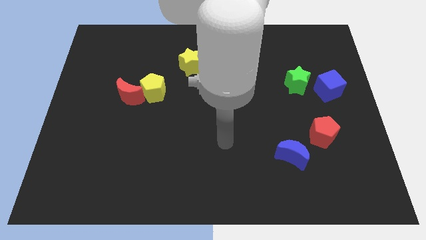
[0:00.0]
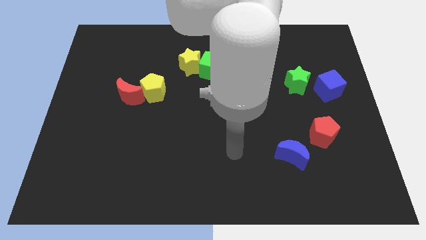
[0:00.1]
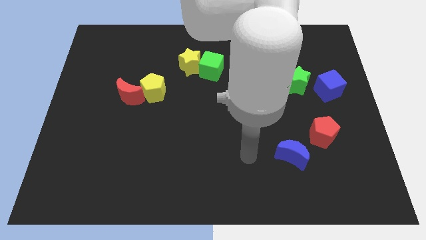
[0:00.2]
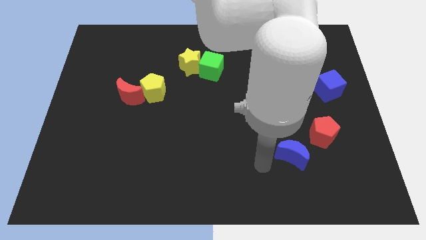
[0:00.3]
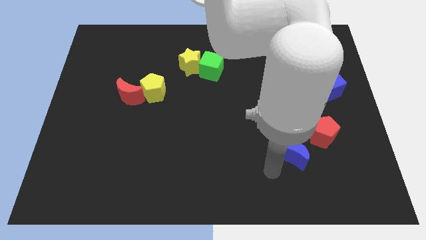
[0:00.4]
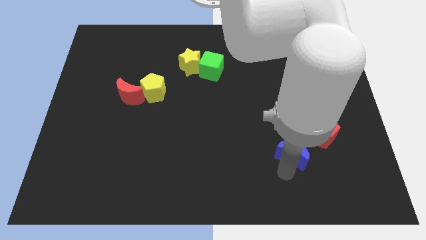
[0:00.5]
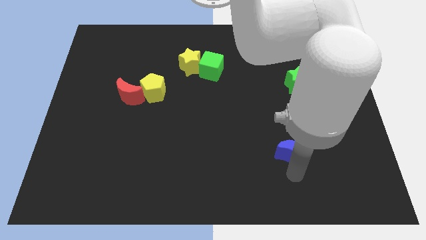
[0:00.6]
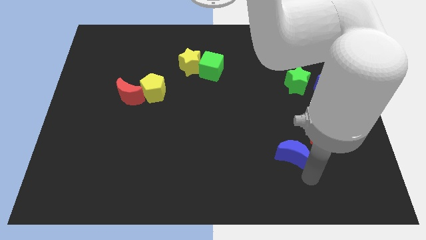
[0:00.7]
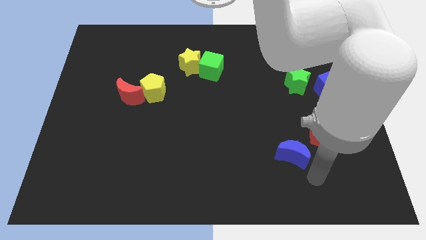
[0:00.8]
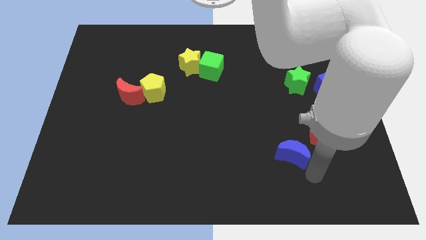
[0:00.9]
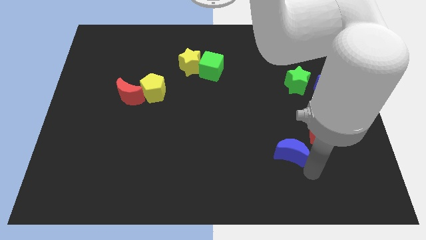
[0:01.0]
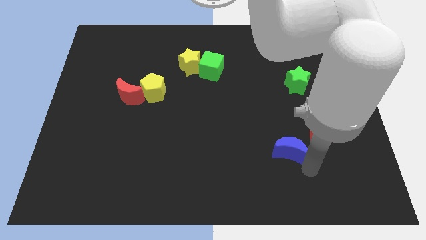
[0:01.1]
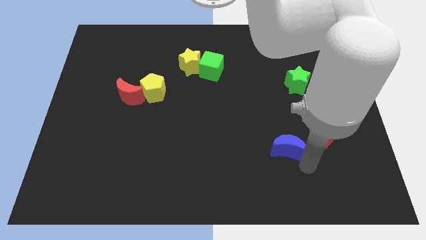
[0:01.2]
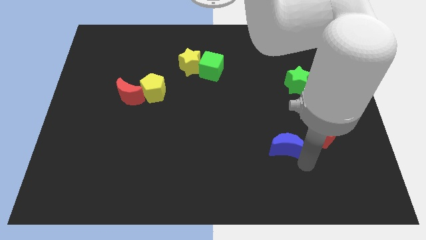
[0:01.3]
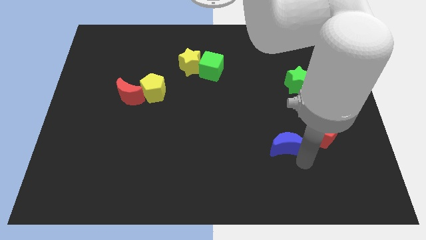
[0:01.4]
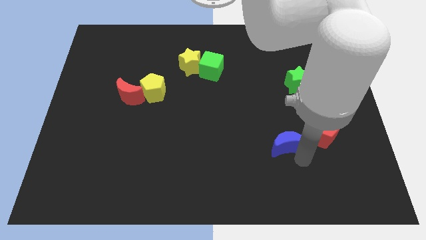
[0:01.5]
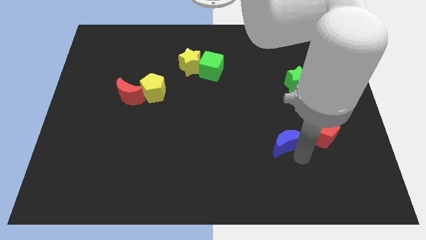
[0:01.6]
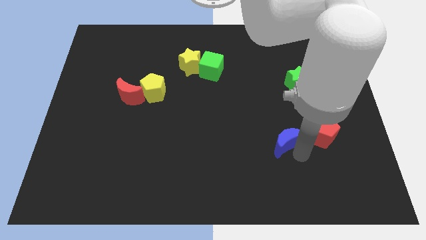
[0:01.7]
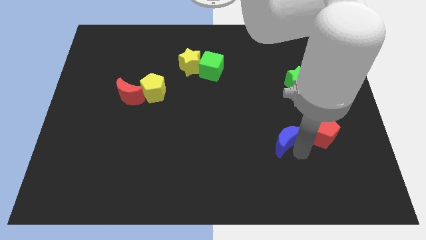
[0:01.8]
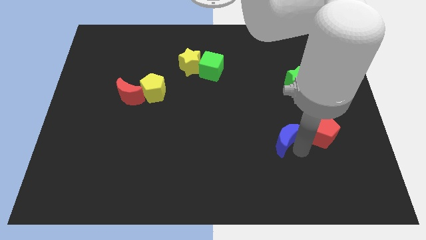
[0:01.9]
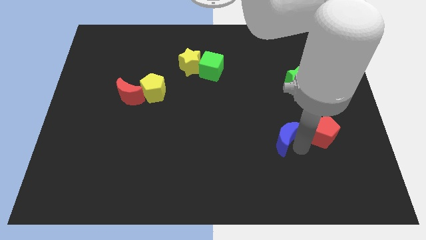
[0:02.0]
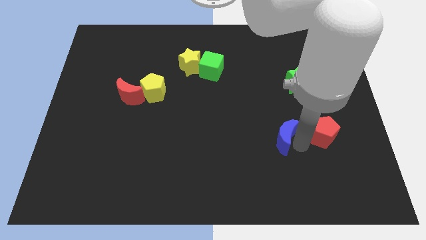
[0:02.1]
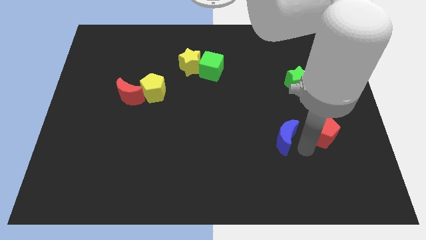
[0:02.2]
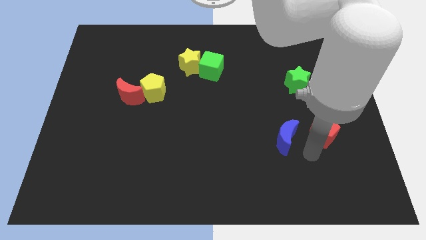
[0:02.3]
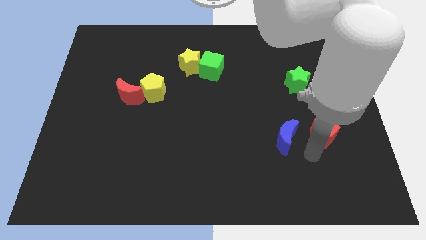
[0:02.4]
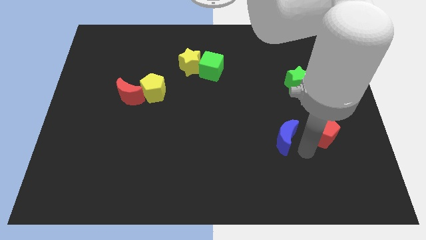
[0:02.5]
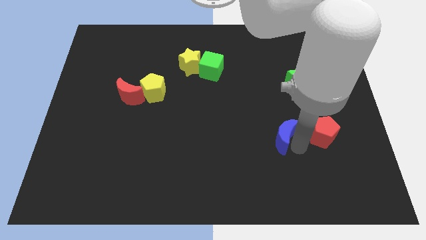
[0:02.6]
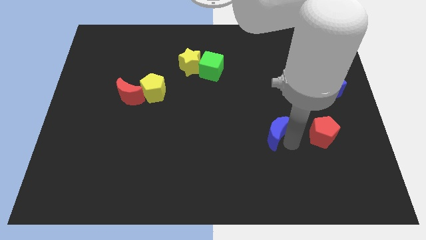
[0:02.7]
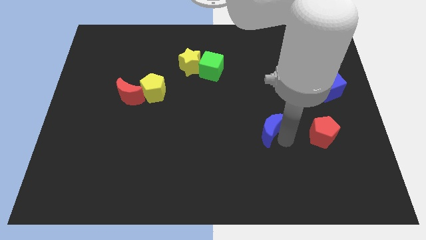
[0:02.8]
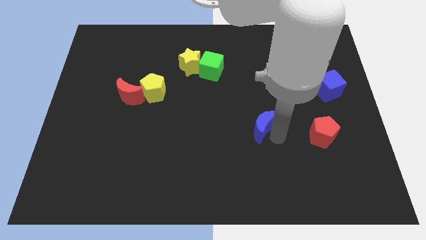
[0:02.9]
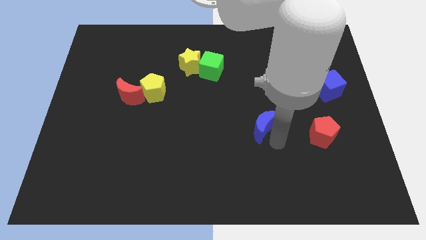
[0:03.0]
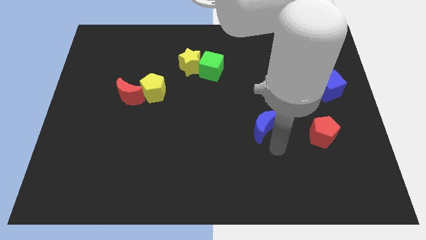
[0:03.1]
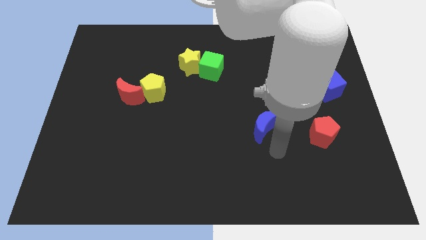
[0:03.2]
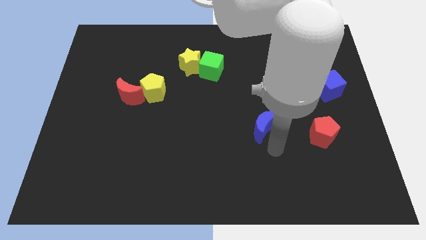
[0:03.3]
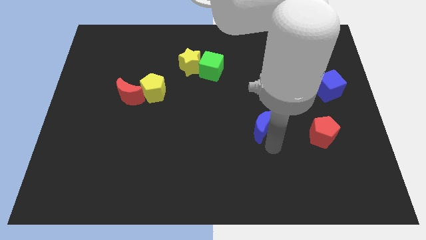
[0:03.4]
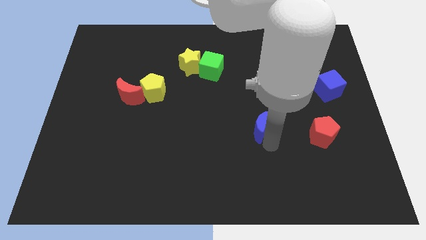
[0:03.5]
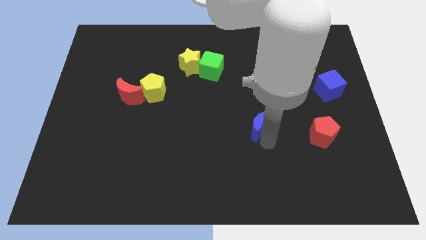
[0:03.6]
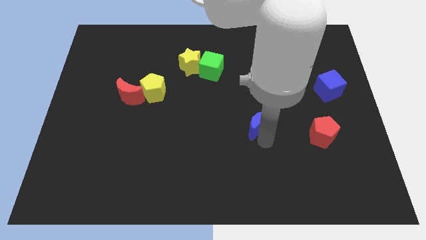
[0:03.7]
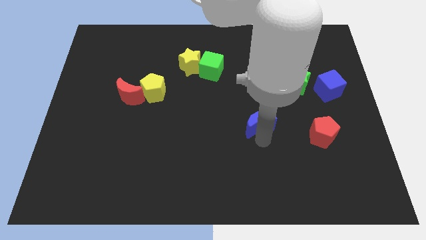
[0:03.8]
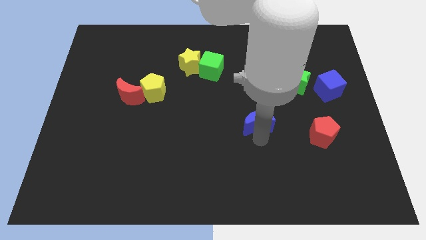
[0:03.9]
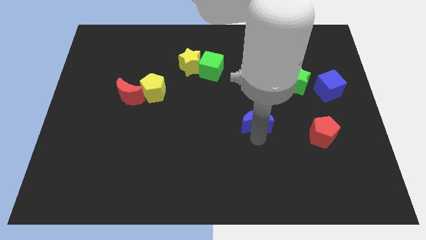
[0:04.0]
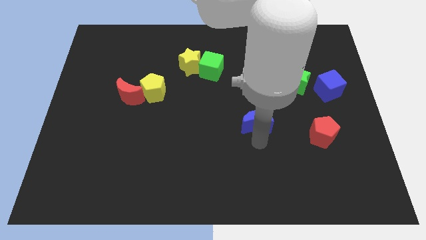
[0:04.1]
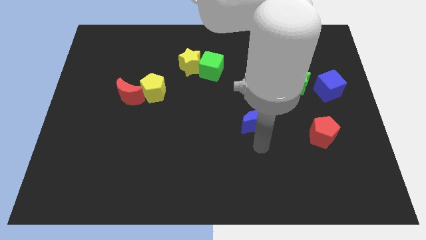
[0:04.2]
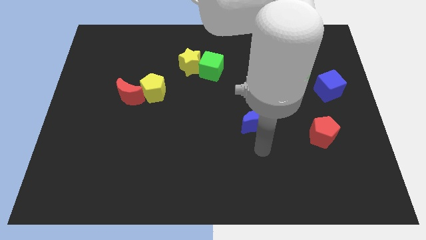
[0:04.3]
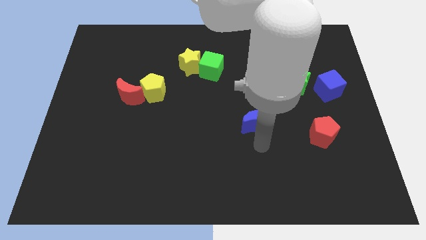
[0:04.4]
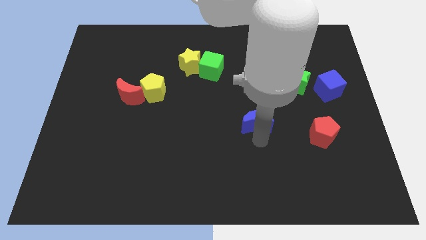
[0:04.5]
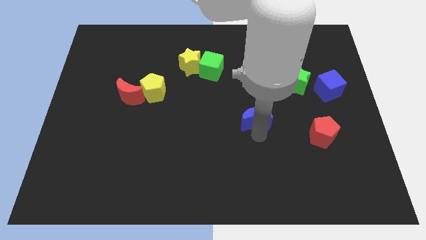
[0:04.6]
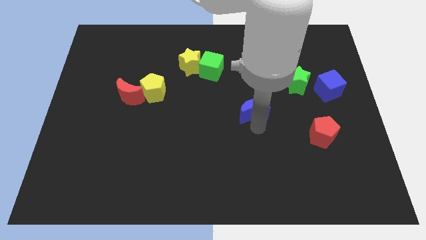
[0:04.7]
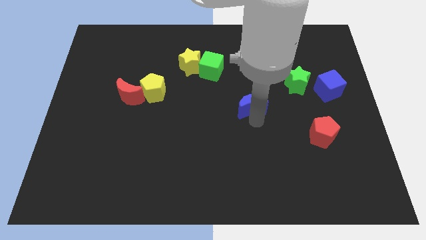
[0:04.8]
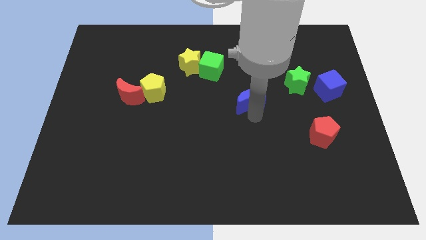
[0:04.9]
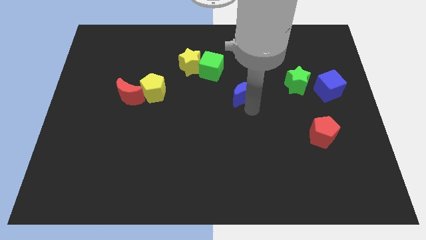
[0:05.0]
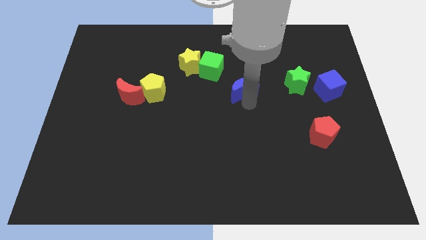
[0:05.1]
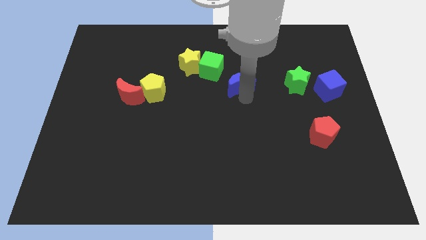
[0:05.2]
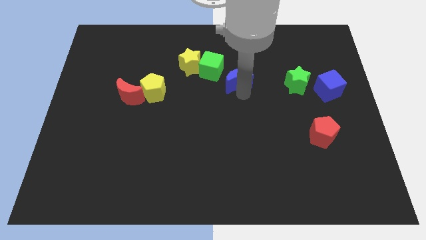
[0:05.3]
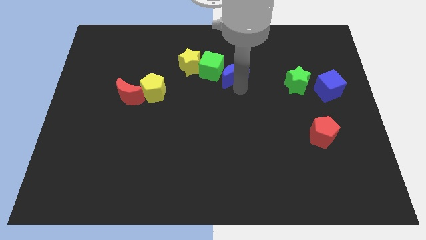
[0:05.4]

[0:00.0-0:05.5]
put the blue moon to the right side of the yellow star

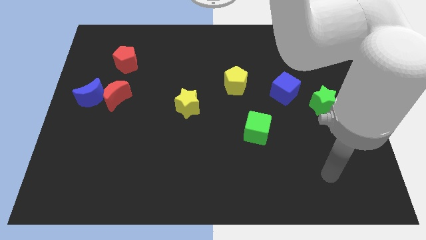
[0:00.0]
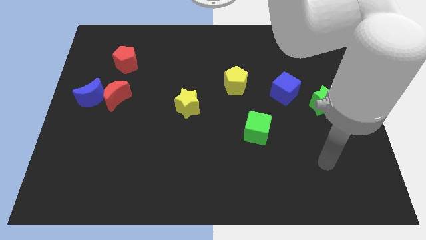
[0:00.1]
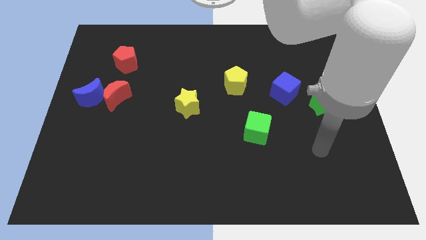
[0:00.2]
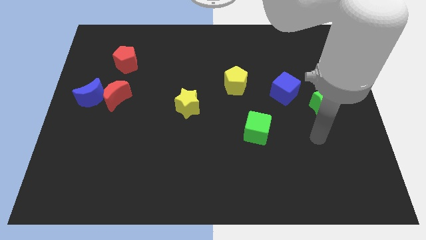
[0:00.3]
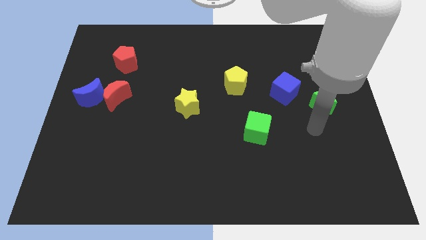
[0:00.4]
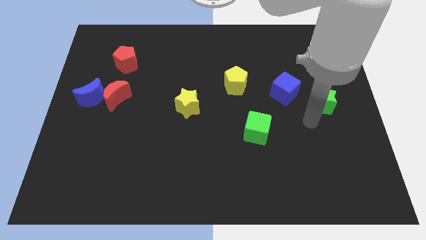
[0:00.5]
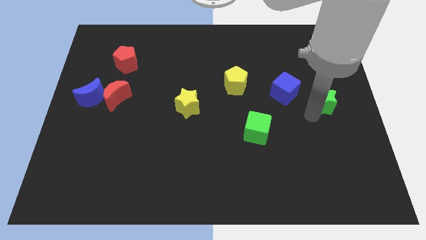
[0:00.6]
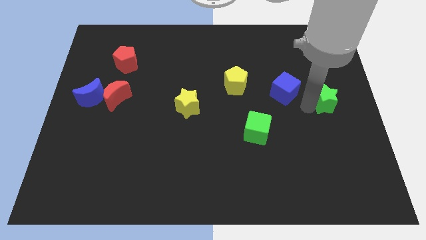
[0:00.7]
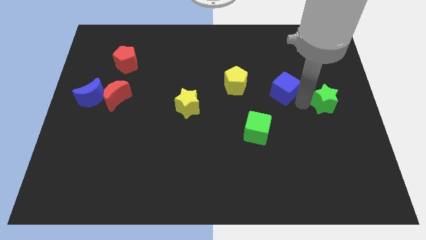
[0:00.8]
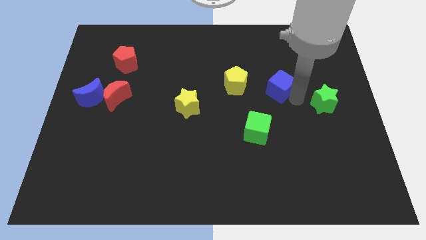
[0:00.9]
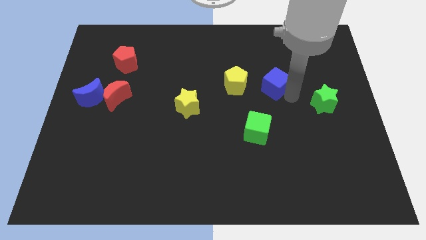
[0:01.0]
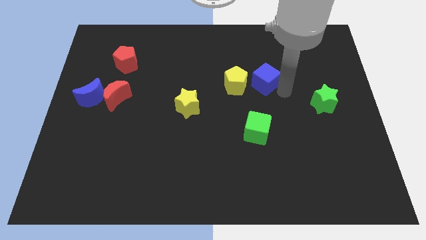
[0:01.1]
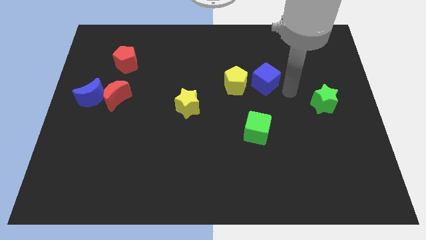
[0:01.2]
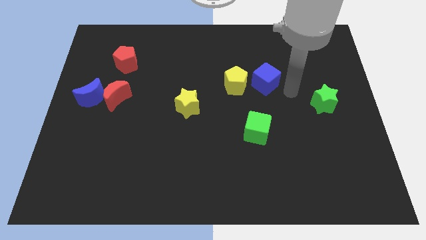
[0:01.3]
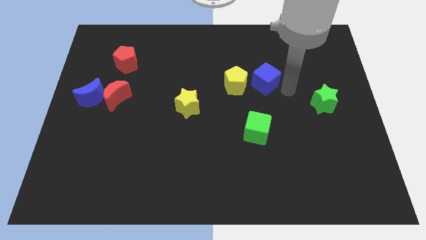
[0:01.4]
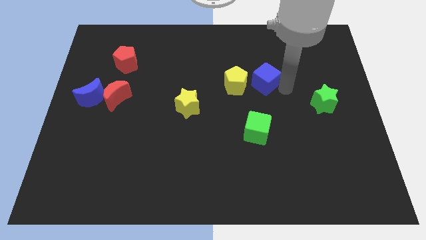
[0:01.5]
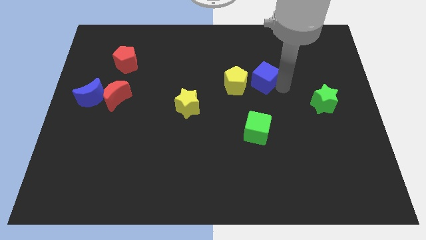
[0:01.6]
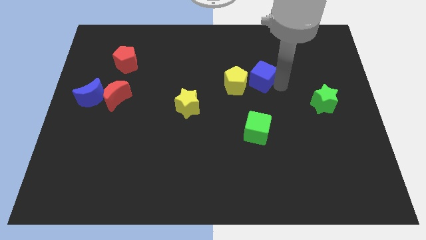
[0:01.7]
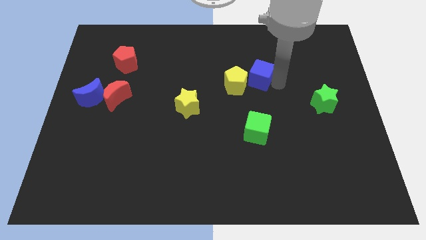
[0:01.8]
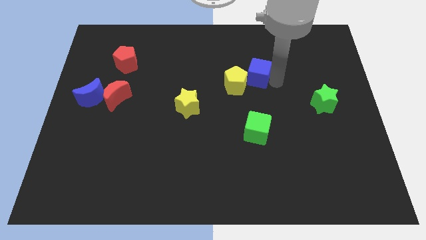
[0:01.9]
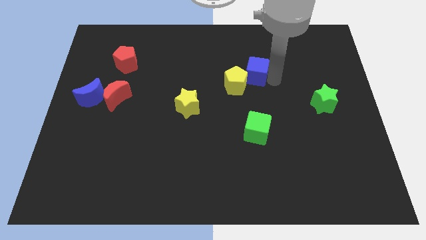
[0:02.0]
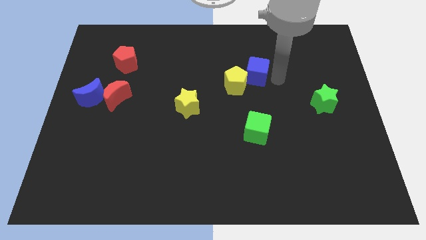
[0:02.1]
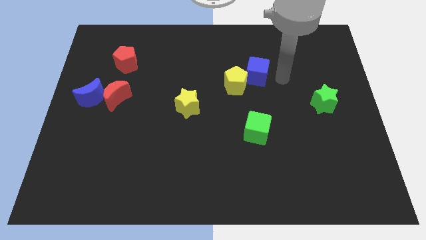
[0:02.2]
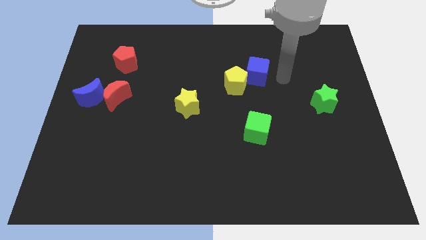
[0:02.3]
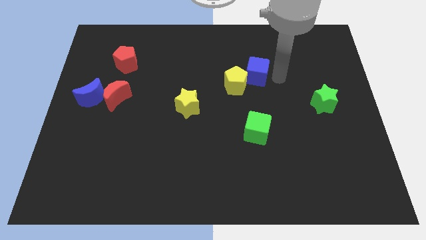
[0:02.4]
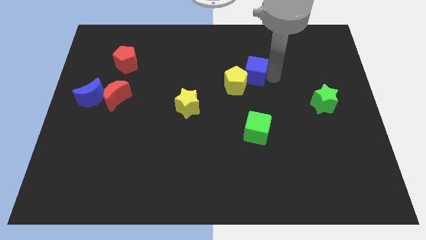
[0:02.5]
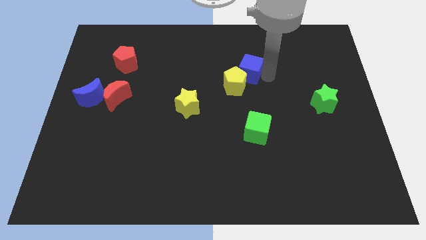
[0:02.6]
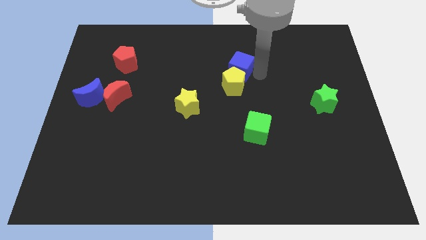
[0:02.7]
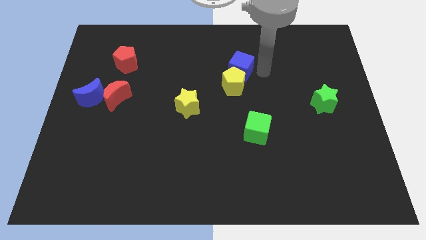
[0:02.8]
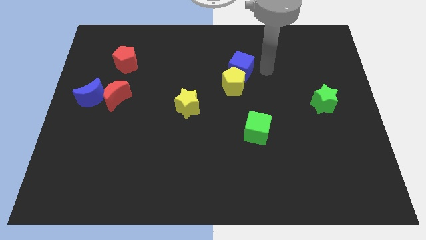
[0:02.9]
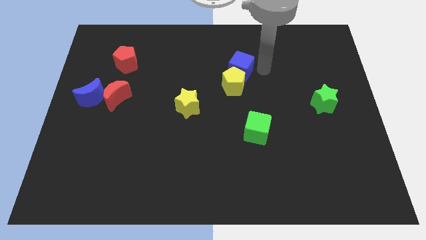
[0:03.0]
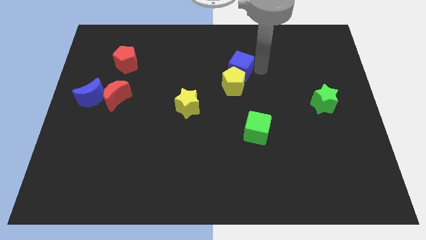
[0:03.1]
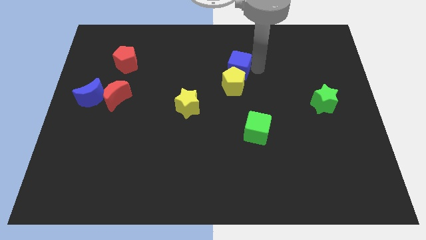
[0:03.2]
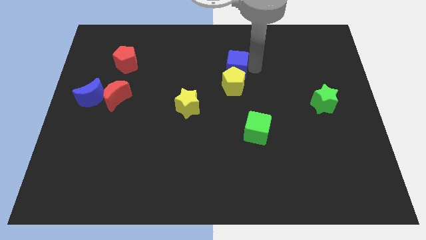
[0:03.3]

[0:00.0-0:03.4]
slide the blue cube to the top left of the yellow pentagon
